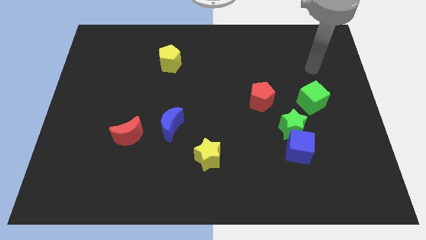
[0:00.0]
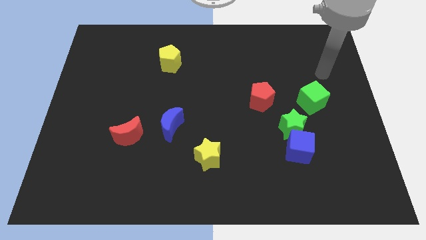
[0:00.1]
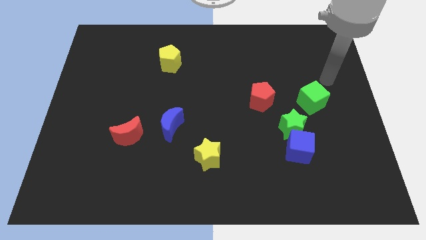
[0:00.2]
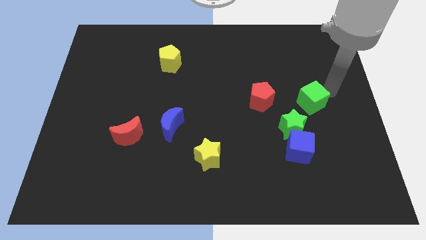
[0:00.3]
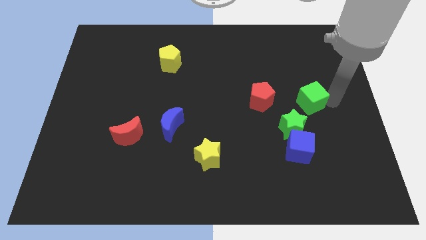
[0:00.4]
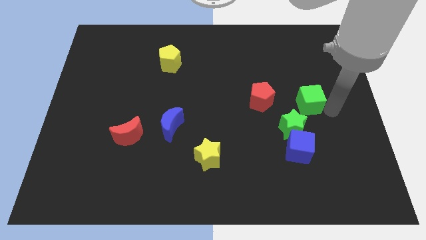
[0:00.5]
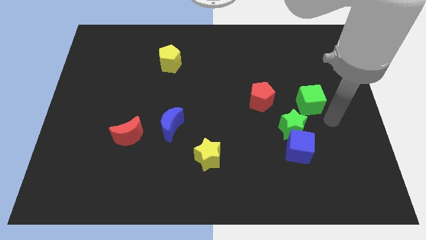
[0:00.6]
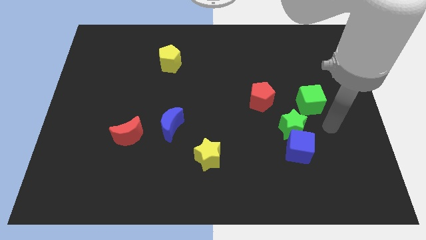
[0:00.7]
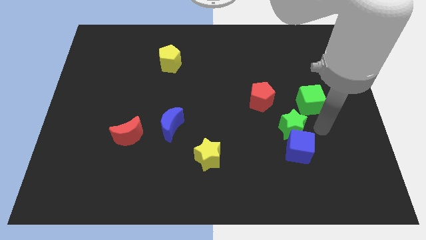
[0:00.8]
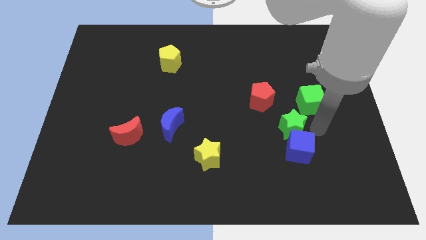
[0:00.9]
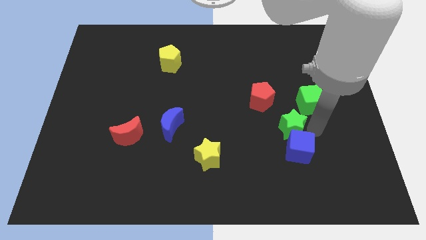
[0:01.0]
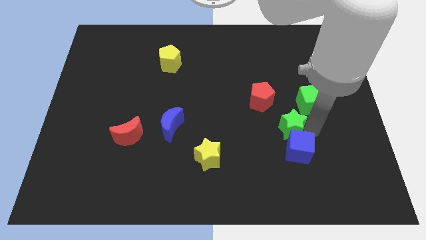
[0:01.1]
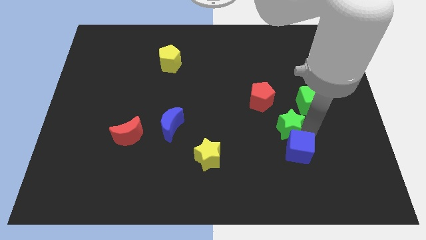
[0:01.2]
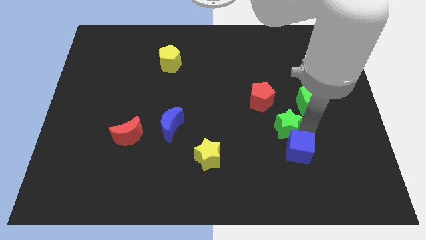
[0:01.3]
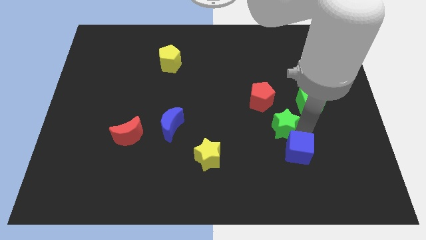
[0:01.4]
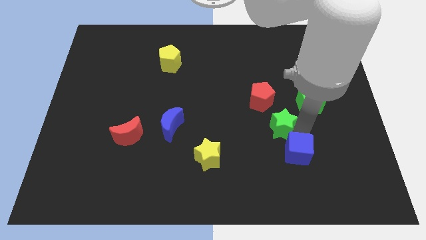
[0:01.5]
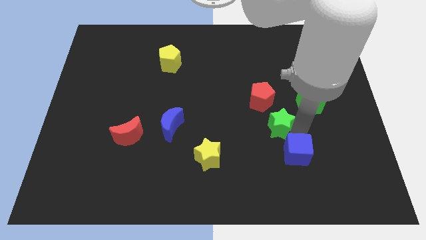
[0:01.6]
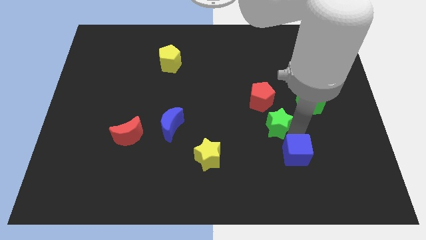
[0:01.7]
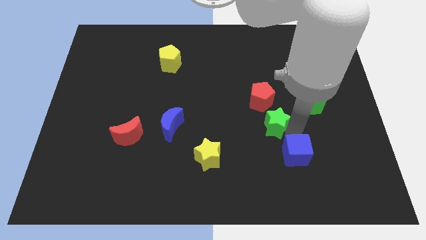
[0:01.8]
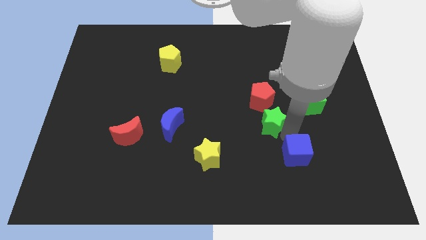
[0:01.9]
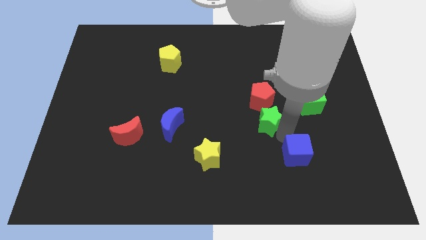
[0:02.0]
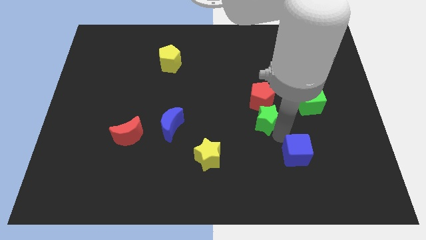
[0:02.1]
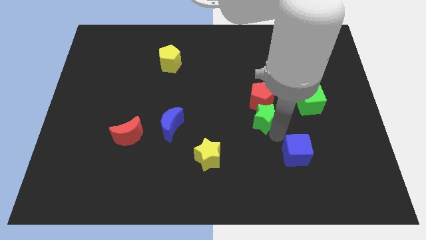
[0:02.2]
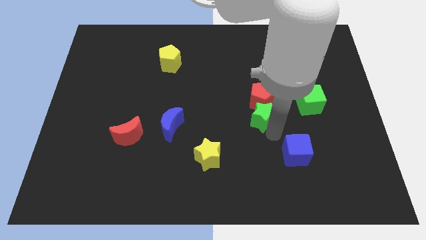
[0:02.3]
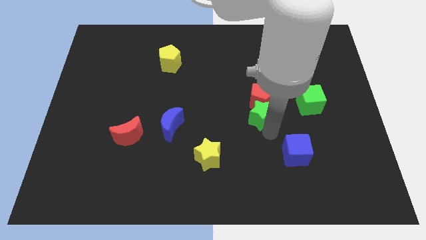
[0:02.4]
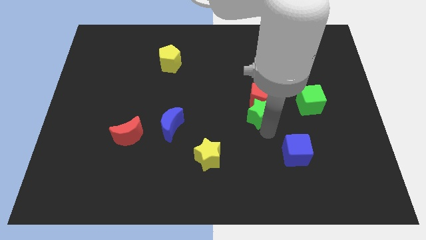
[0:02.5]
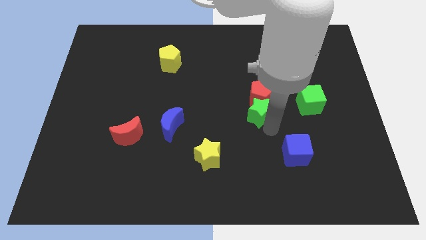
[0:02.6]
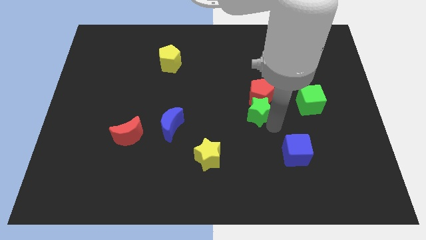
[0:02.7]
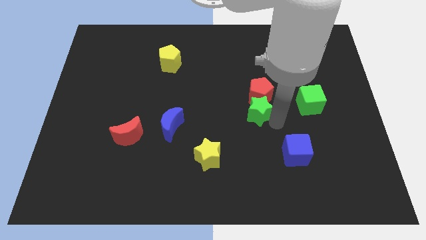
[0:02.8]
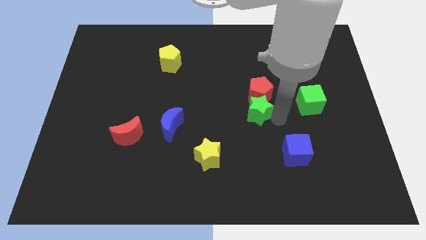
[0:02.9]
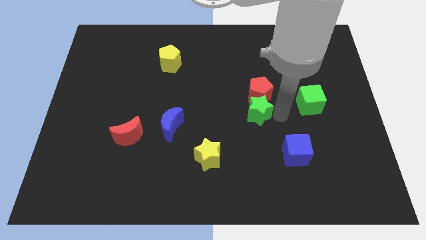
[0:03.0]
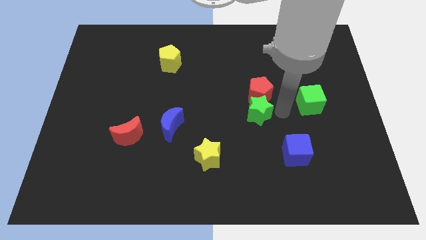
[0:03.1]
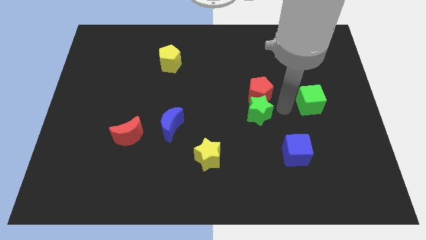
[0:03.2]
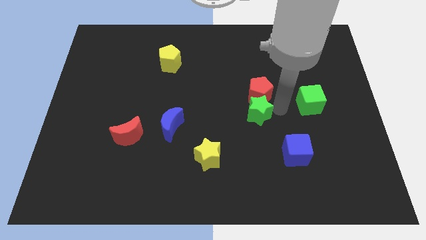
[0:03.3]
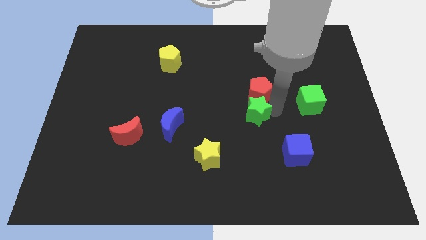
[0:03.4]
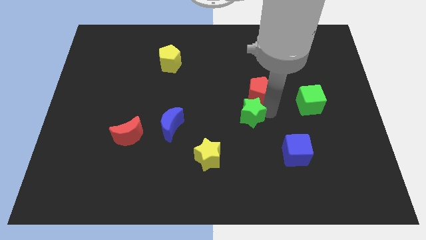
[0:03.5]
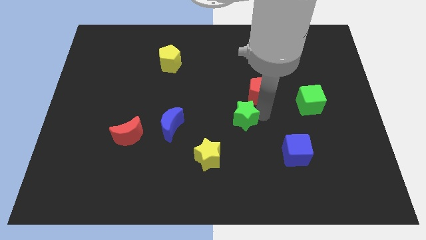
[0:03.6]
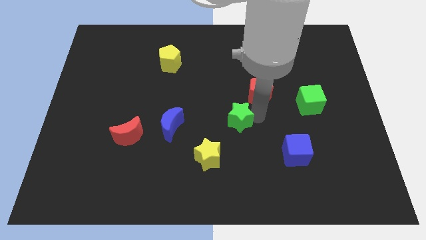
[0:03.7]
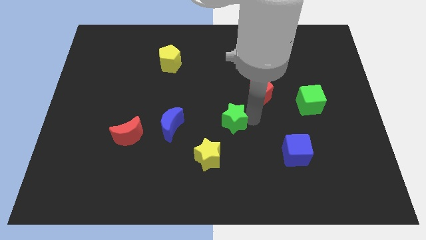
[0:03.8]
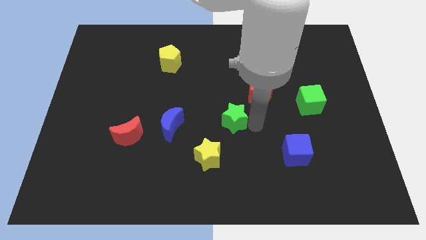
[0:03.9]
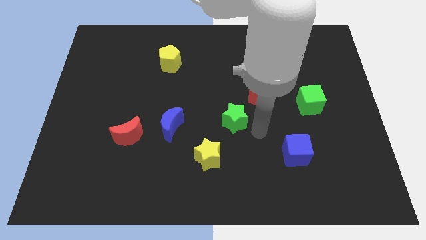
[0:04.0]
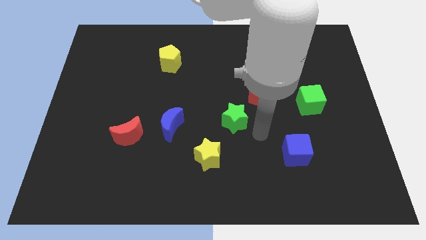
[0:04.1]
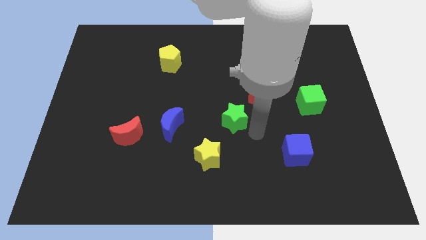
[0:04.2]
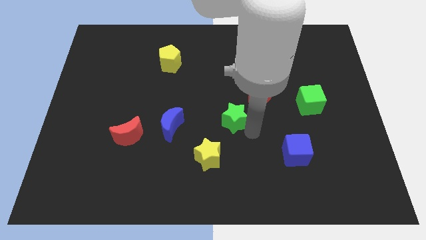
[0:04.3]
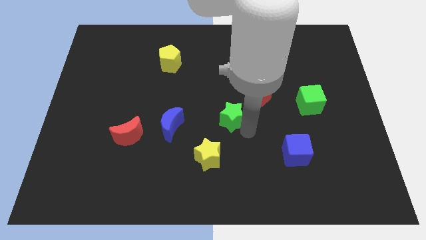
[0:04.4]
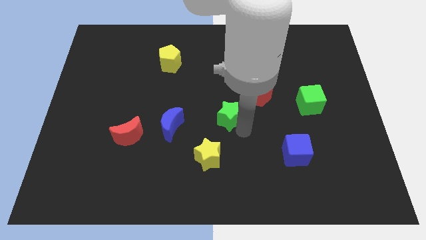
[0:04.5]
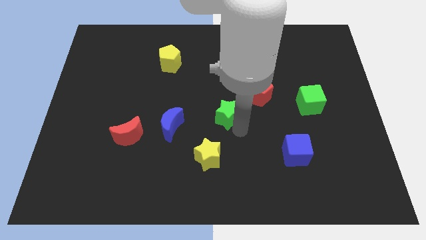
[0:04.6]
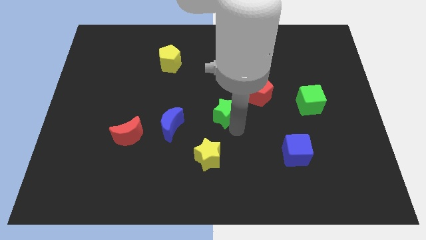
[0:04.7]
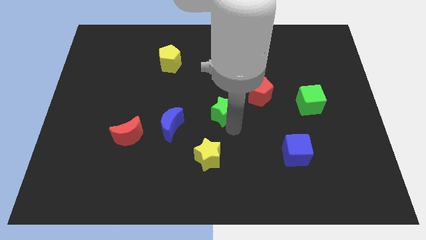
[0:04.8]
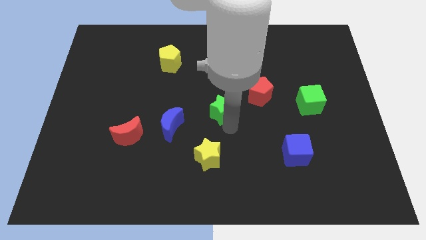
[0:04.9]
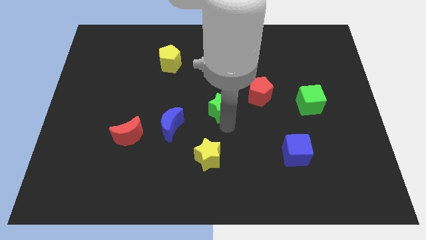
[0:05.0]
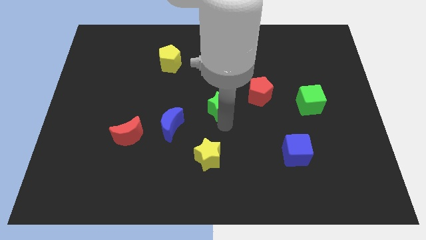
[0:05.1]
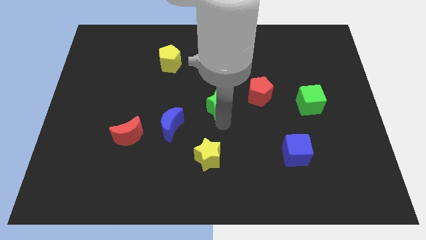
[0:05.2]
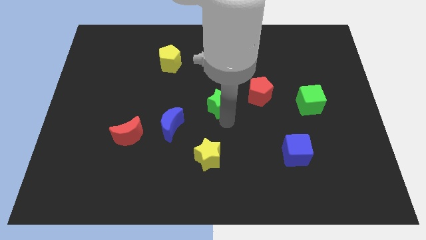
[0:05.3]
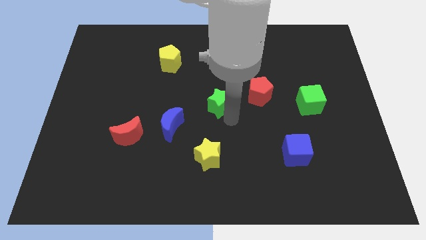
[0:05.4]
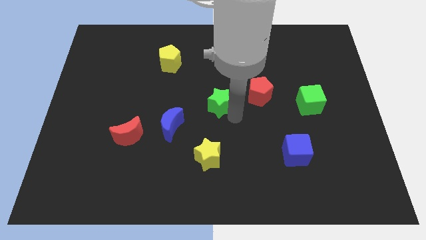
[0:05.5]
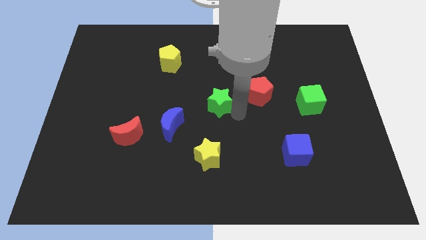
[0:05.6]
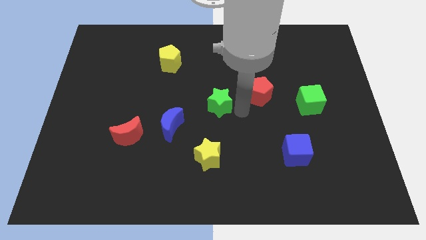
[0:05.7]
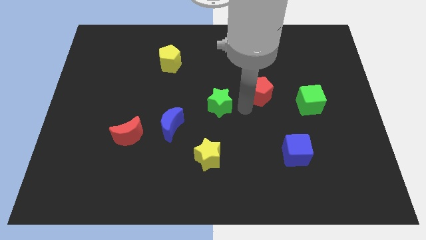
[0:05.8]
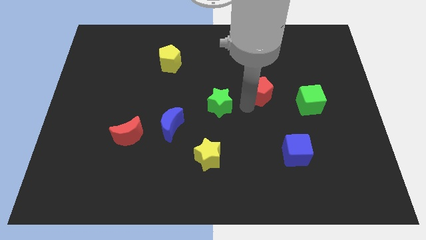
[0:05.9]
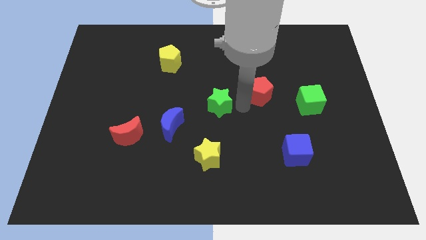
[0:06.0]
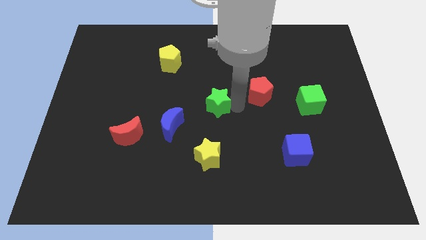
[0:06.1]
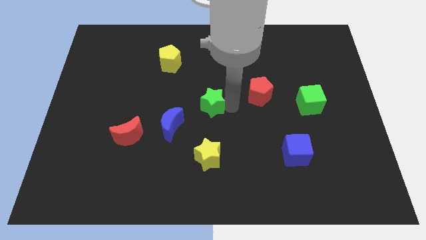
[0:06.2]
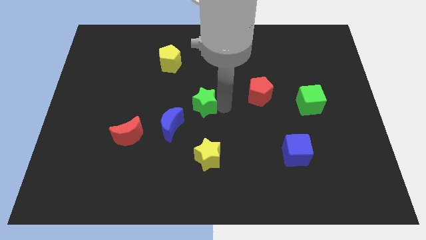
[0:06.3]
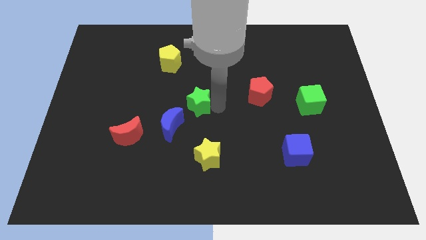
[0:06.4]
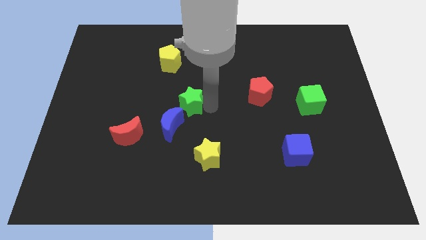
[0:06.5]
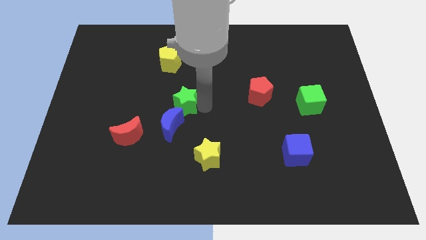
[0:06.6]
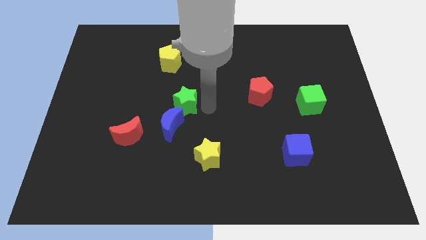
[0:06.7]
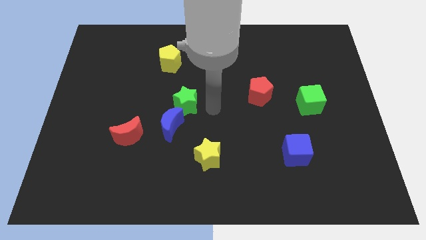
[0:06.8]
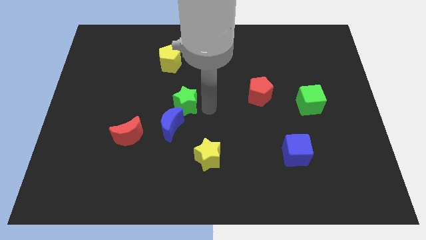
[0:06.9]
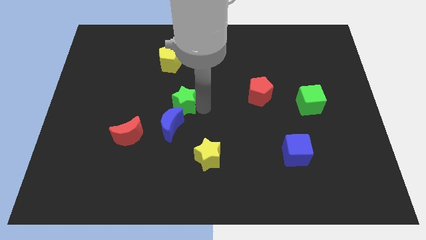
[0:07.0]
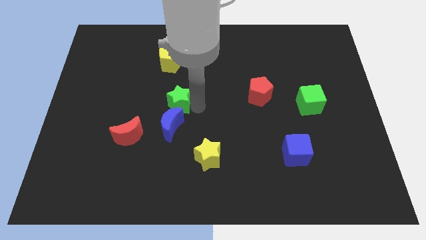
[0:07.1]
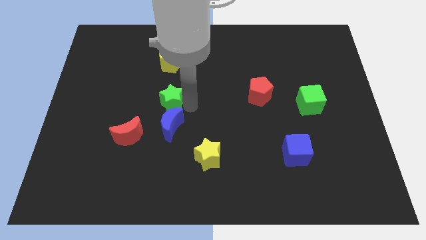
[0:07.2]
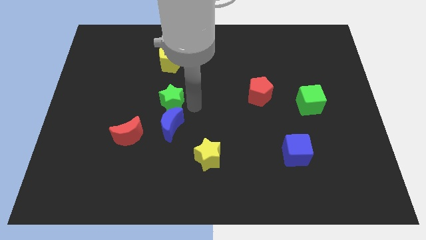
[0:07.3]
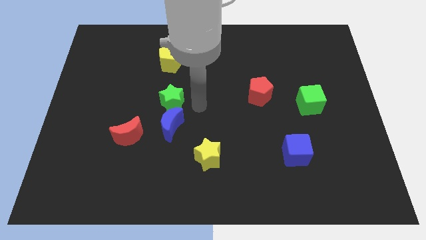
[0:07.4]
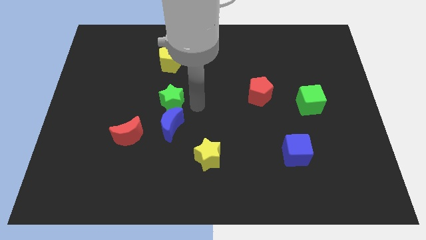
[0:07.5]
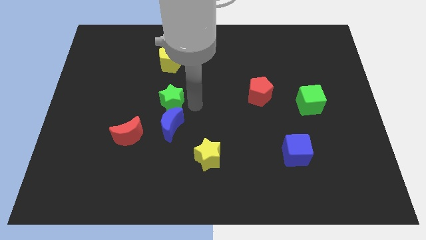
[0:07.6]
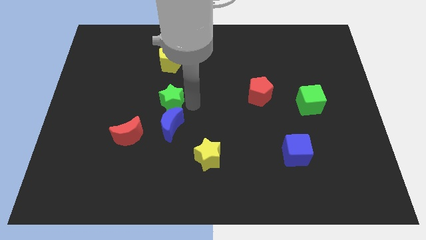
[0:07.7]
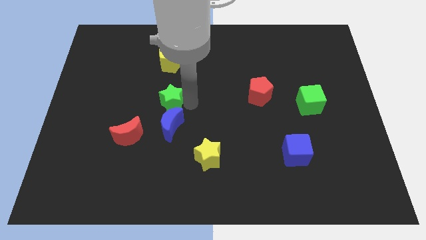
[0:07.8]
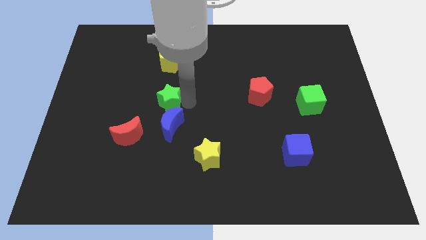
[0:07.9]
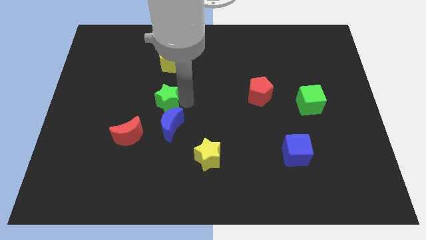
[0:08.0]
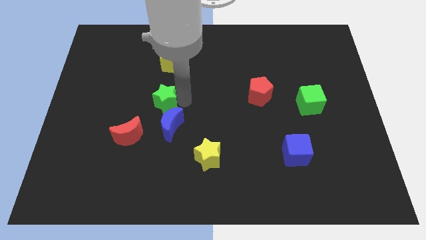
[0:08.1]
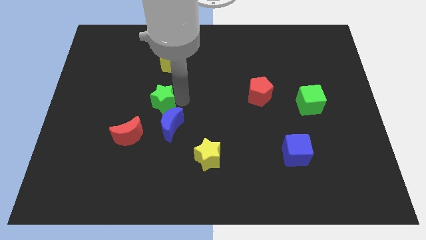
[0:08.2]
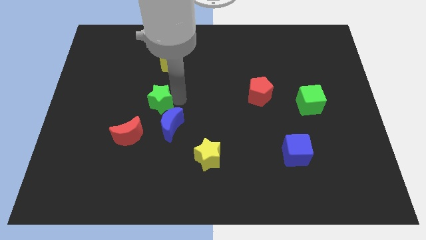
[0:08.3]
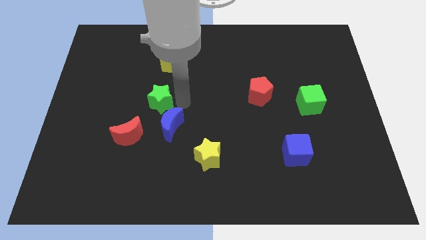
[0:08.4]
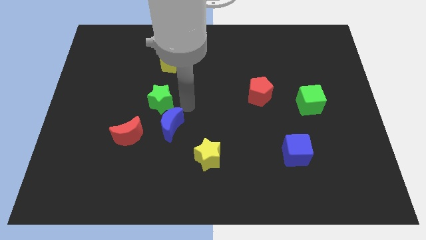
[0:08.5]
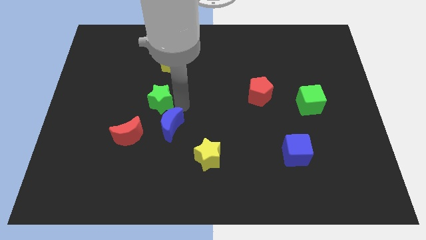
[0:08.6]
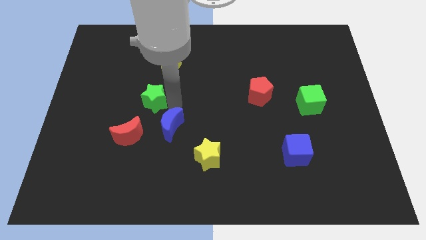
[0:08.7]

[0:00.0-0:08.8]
put the green star to the top of the red moon
